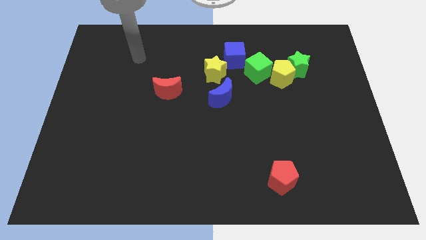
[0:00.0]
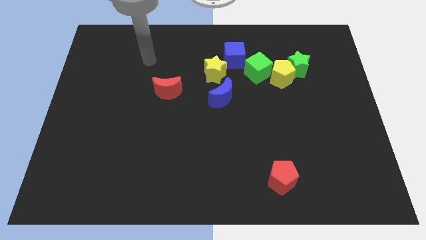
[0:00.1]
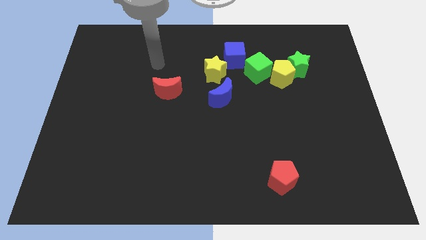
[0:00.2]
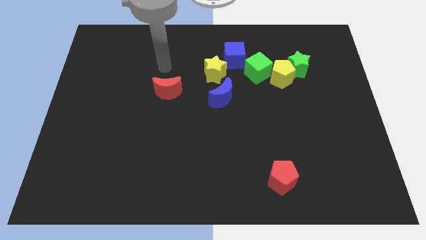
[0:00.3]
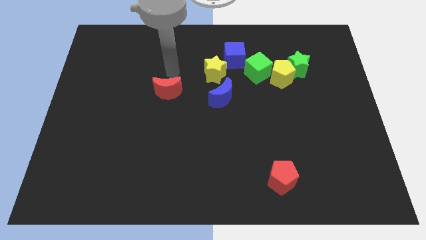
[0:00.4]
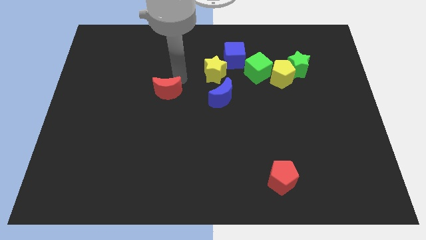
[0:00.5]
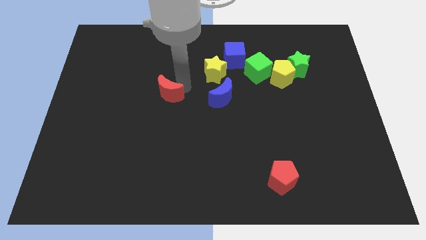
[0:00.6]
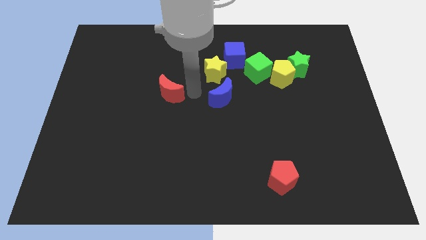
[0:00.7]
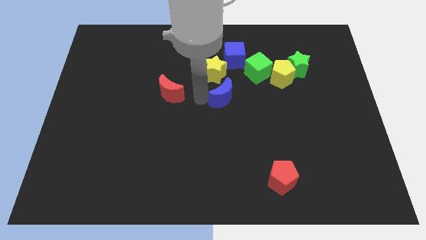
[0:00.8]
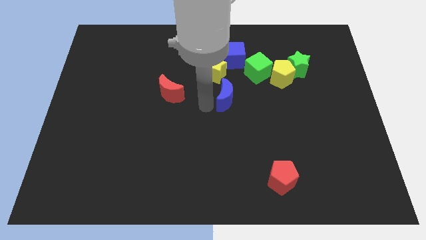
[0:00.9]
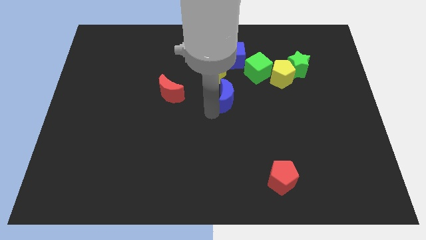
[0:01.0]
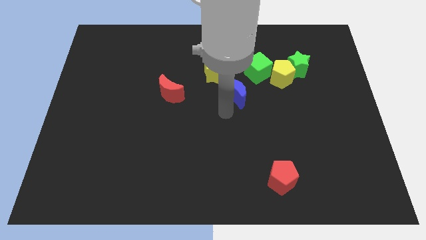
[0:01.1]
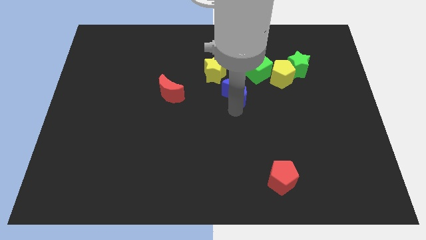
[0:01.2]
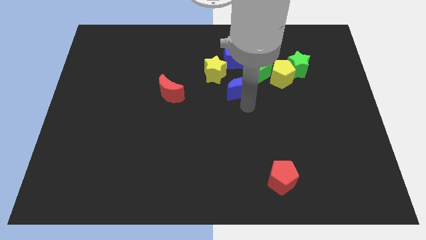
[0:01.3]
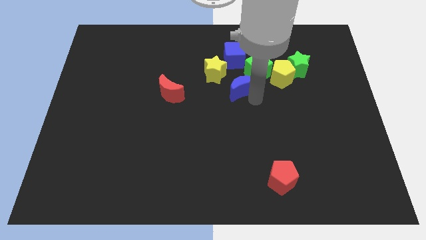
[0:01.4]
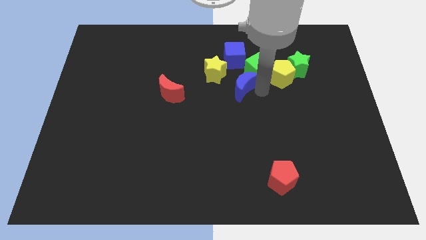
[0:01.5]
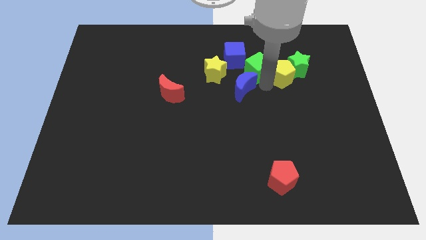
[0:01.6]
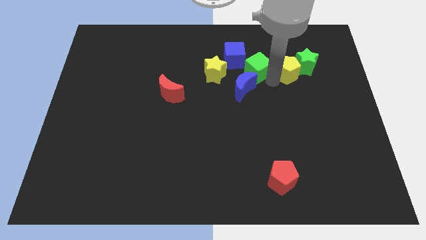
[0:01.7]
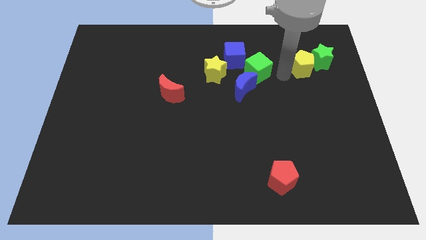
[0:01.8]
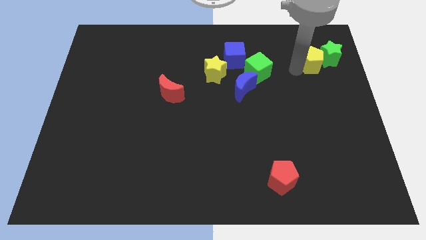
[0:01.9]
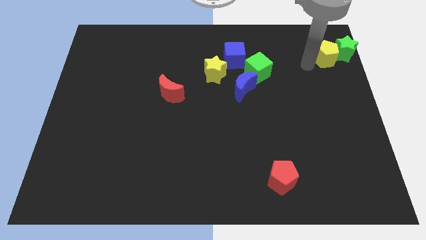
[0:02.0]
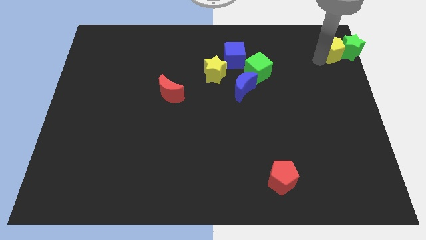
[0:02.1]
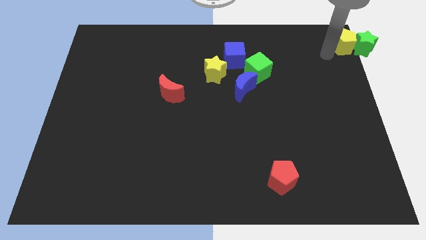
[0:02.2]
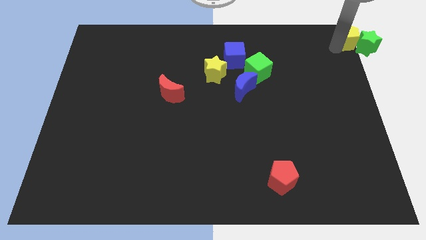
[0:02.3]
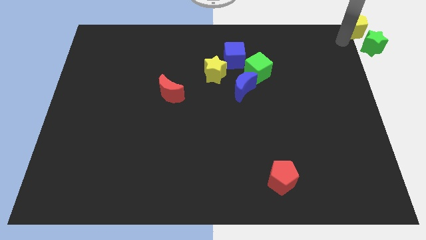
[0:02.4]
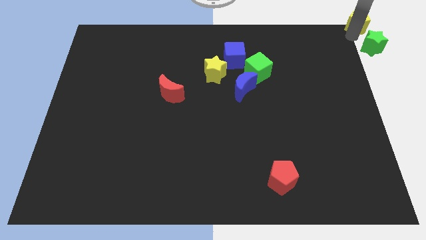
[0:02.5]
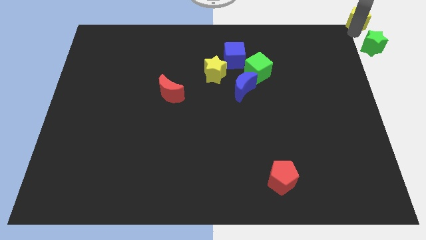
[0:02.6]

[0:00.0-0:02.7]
pull the green star apart from the yellow pentagon

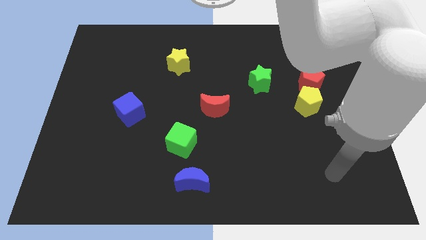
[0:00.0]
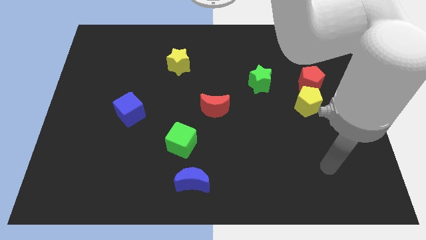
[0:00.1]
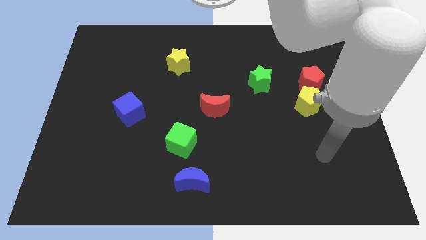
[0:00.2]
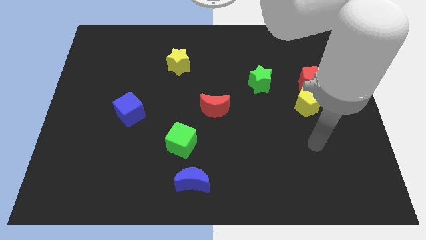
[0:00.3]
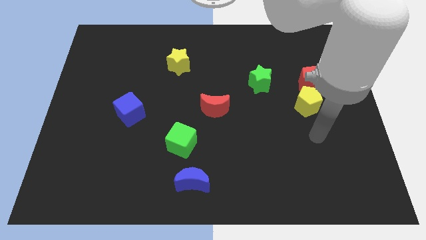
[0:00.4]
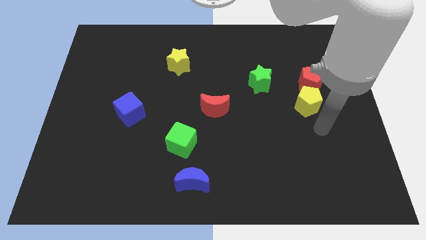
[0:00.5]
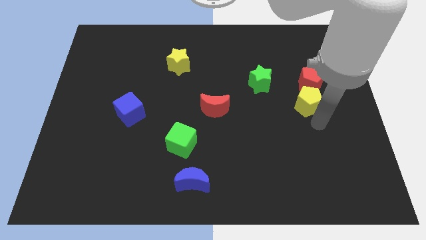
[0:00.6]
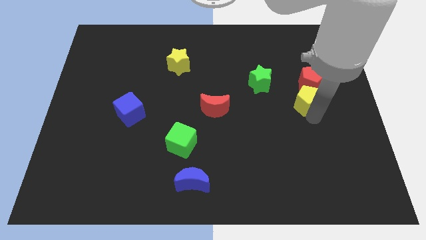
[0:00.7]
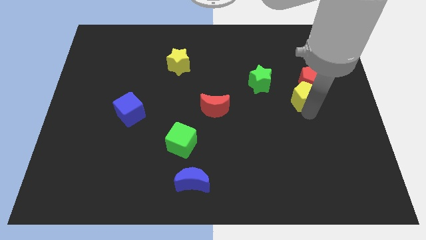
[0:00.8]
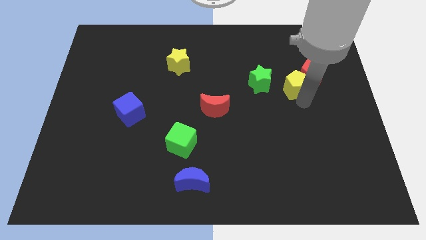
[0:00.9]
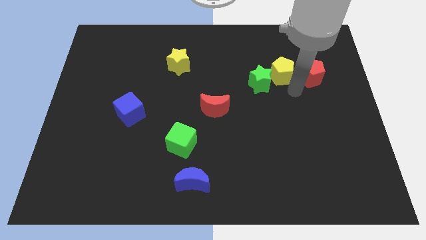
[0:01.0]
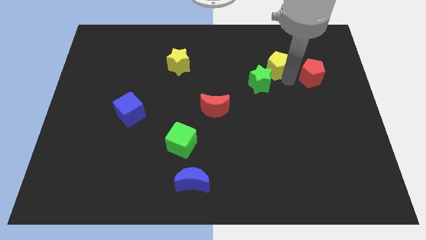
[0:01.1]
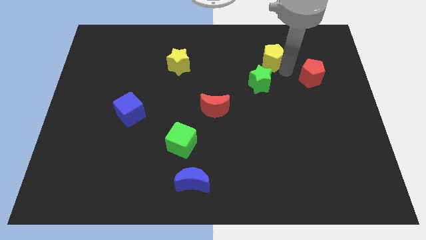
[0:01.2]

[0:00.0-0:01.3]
pull the red pentagon apart from the yellow pentagon

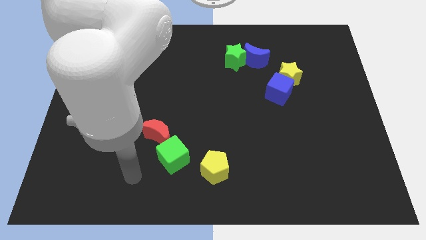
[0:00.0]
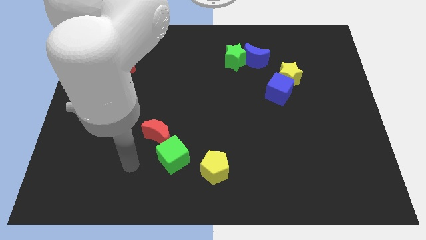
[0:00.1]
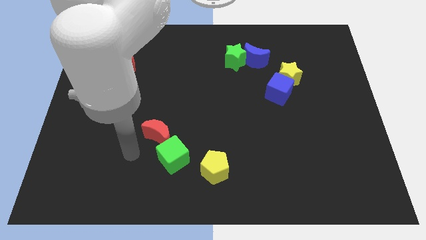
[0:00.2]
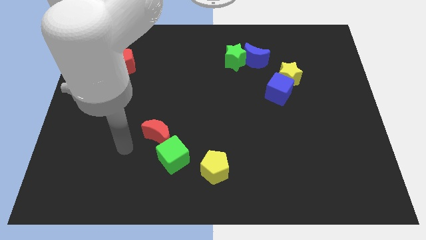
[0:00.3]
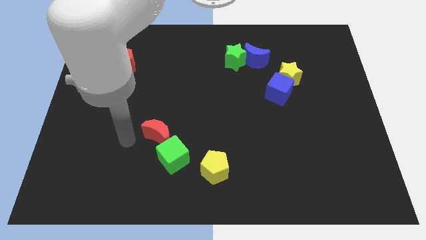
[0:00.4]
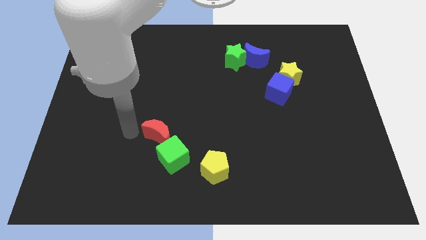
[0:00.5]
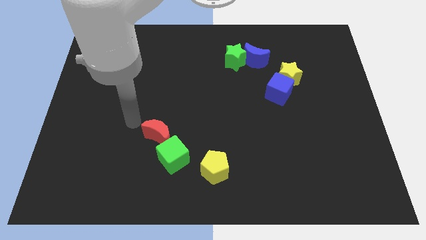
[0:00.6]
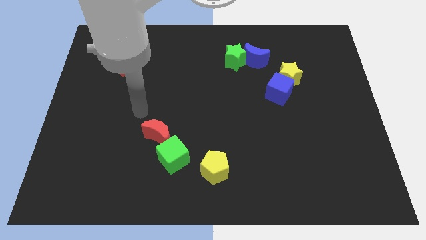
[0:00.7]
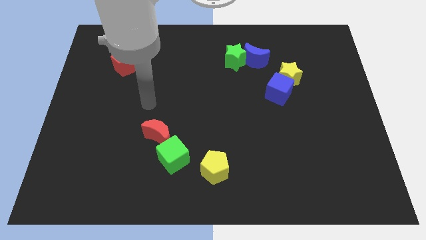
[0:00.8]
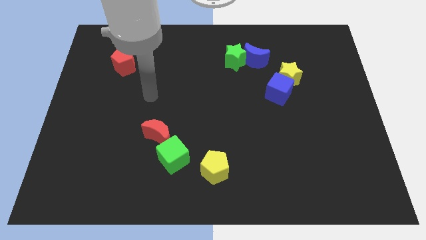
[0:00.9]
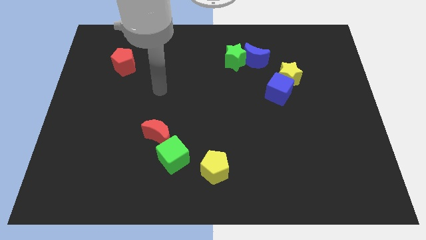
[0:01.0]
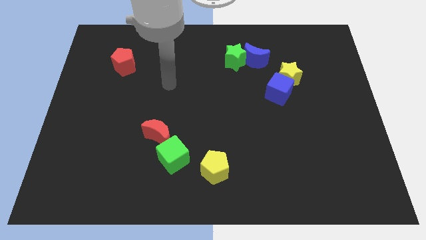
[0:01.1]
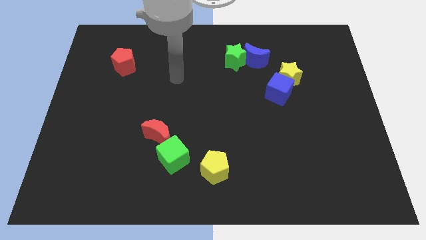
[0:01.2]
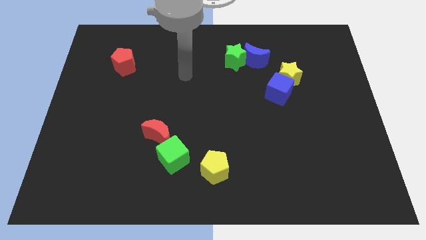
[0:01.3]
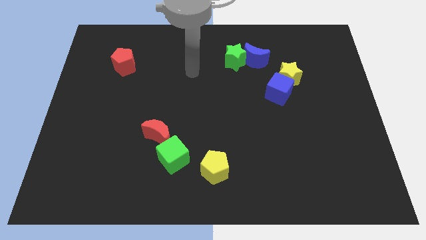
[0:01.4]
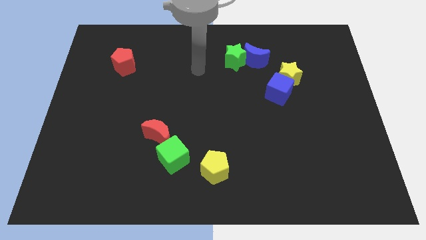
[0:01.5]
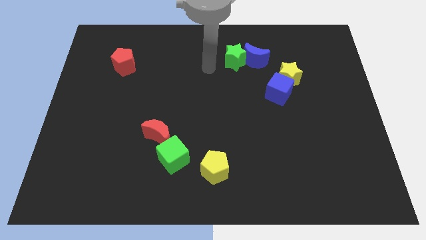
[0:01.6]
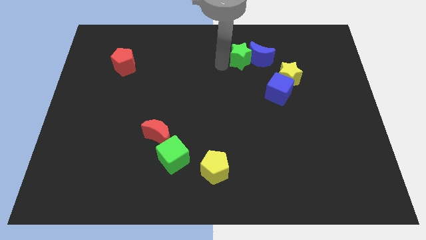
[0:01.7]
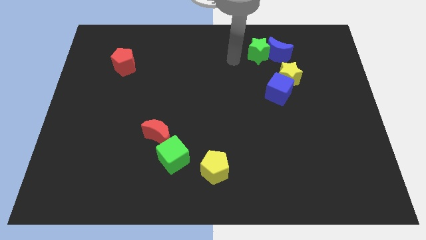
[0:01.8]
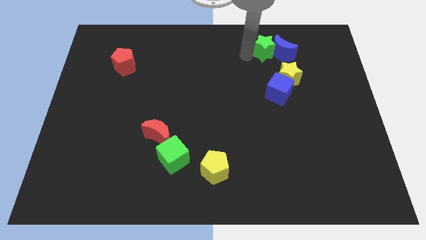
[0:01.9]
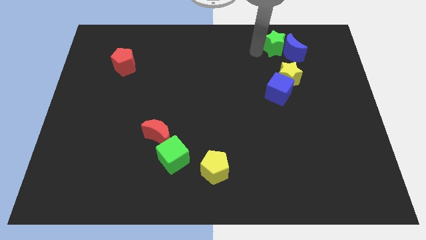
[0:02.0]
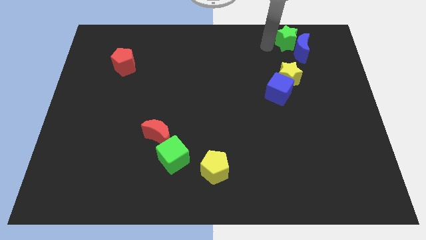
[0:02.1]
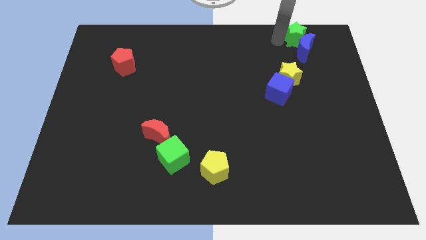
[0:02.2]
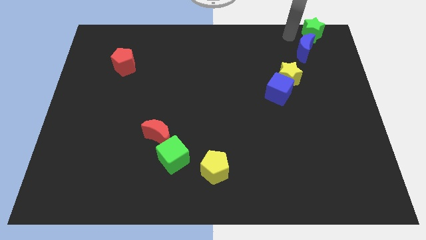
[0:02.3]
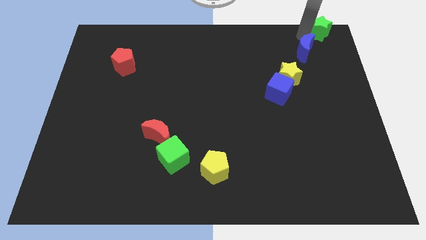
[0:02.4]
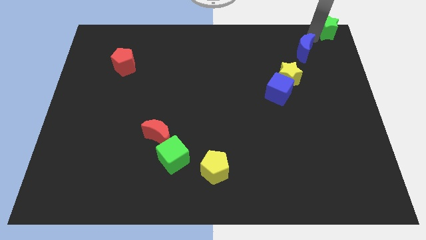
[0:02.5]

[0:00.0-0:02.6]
pull the blue moon apart from the green star

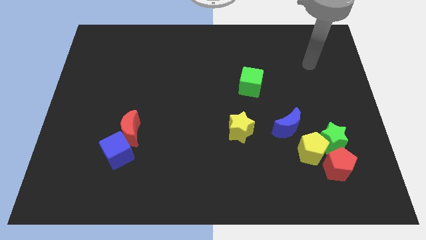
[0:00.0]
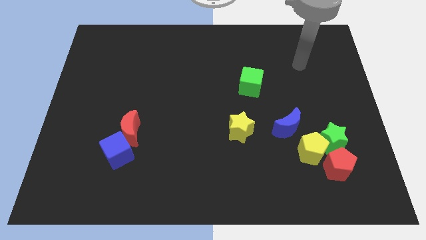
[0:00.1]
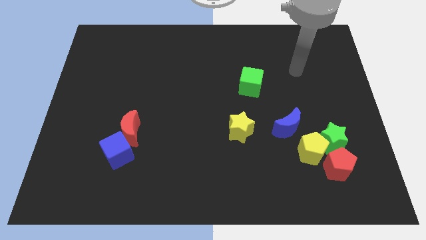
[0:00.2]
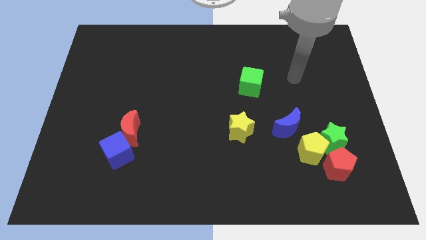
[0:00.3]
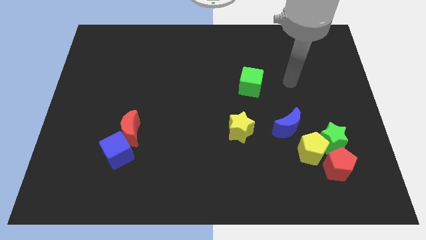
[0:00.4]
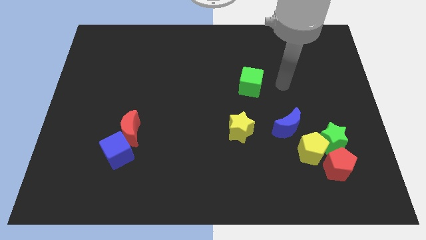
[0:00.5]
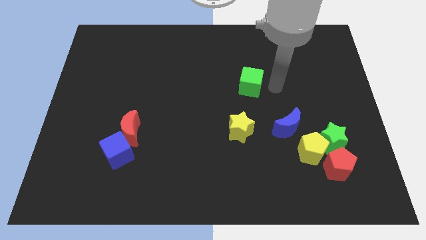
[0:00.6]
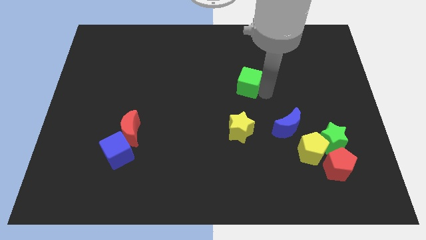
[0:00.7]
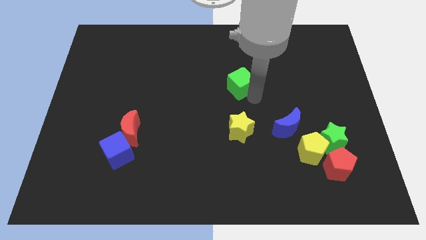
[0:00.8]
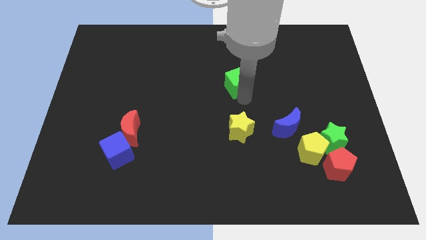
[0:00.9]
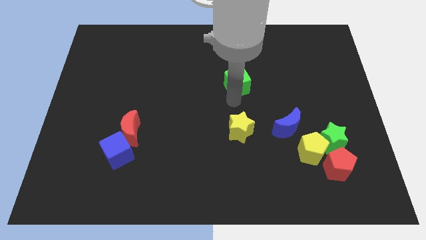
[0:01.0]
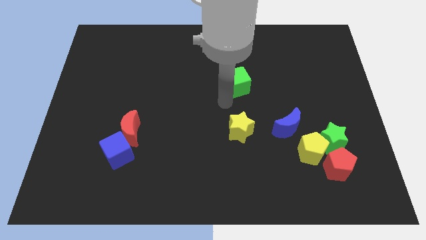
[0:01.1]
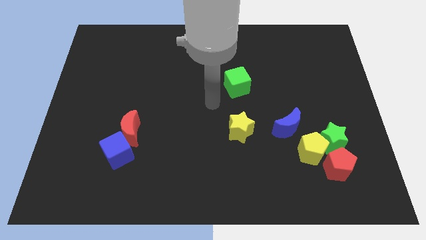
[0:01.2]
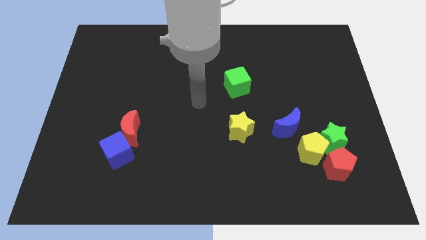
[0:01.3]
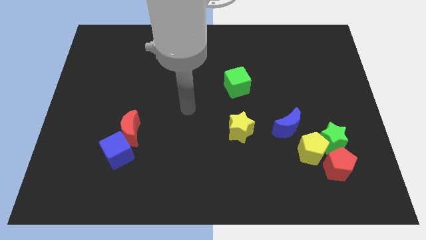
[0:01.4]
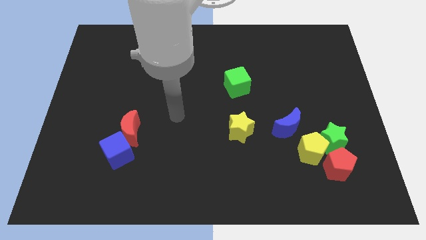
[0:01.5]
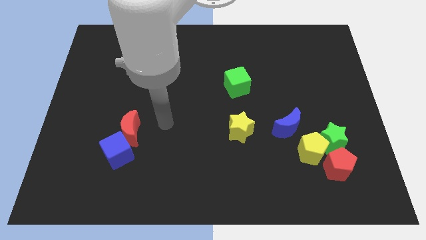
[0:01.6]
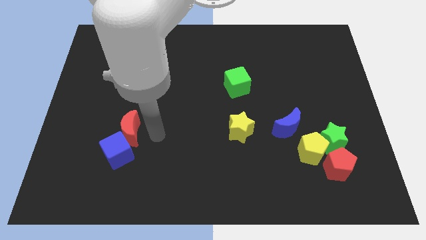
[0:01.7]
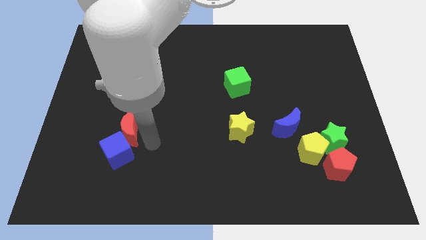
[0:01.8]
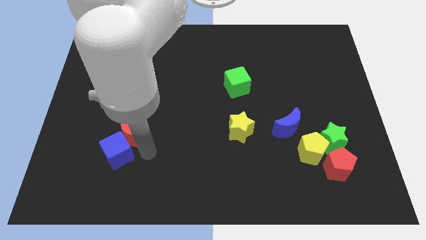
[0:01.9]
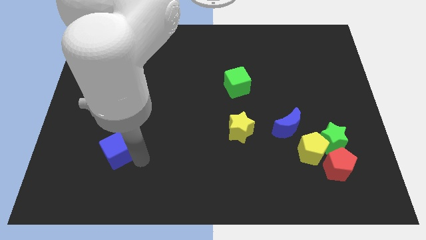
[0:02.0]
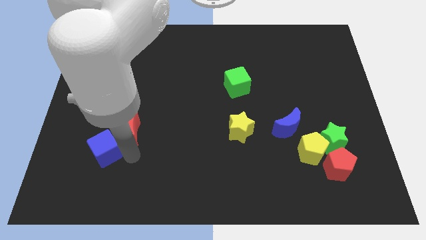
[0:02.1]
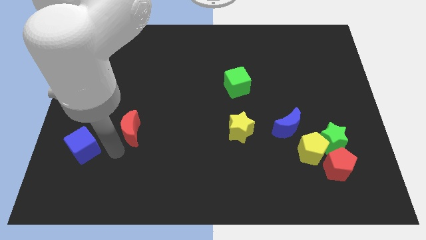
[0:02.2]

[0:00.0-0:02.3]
move the red moon away from the blue cube

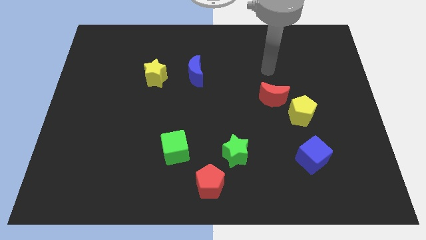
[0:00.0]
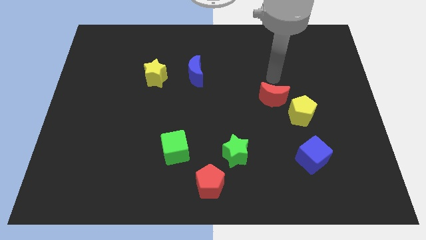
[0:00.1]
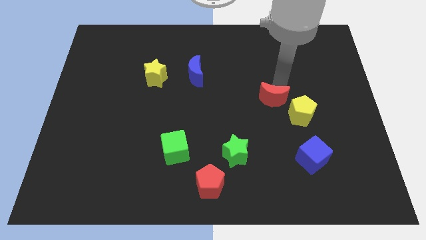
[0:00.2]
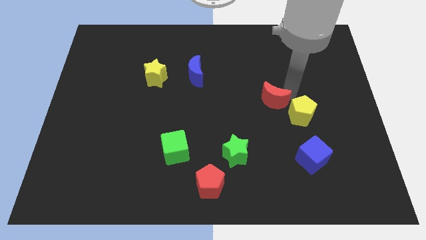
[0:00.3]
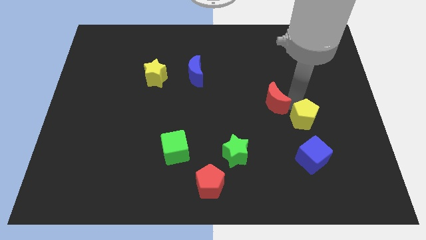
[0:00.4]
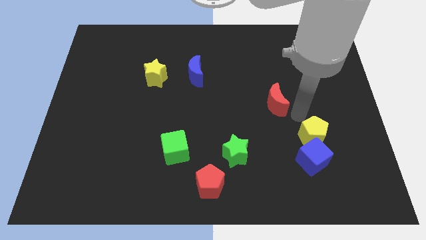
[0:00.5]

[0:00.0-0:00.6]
move the red moon away from the yellow pentagon
